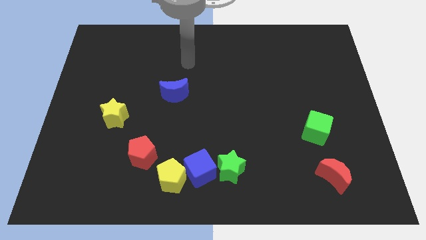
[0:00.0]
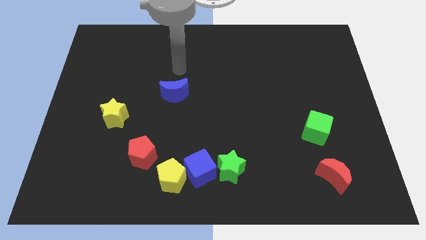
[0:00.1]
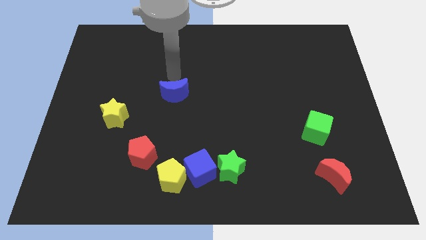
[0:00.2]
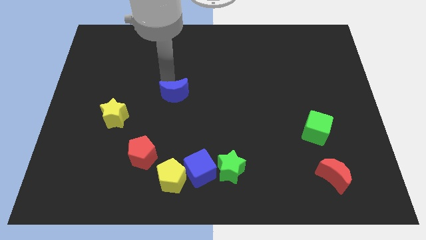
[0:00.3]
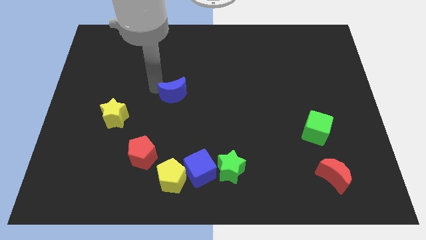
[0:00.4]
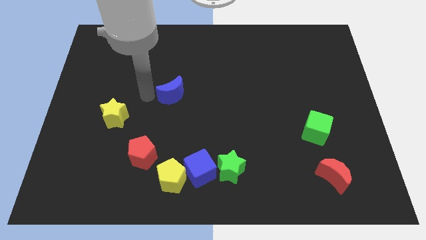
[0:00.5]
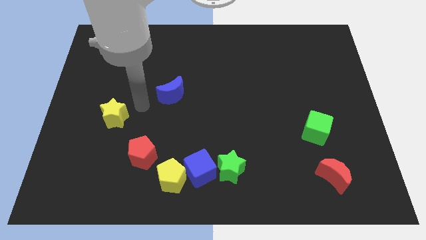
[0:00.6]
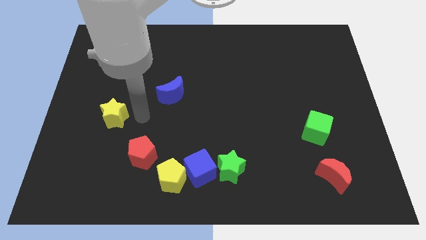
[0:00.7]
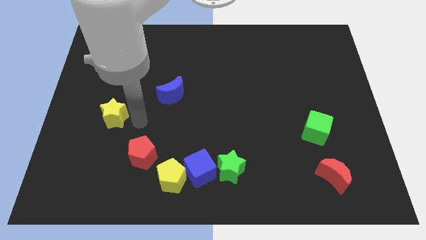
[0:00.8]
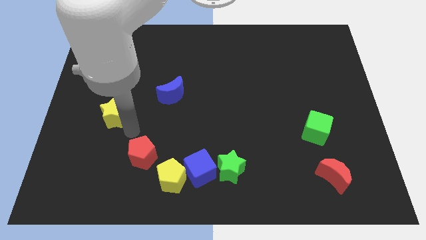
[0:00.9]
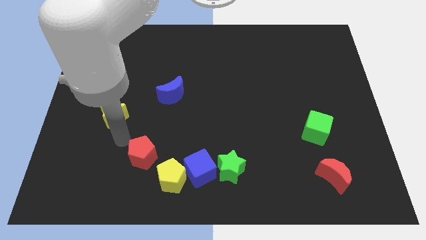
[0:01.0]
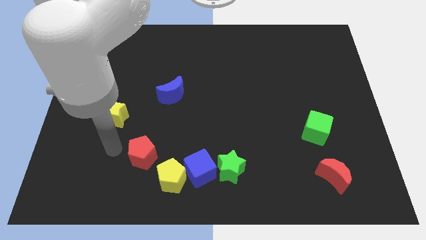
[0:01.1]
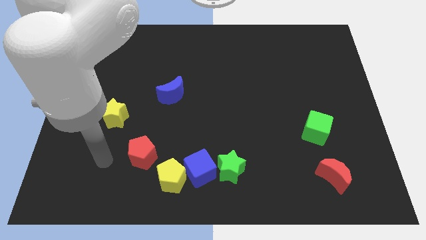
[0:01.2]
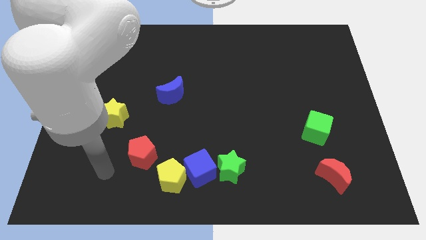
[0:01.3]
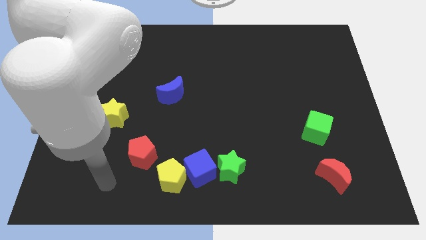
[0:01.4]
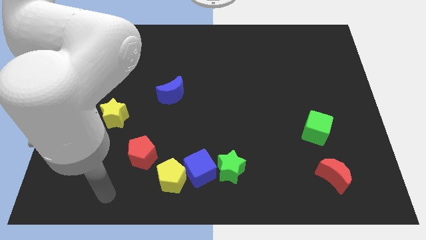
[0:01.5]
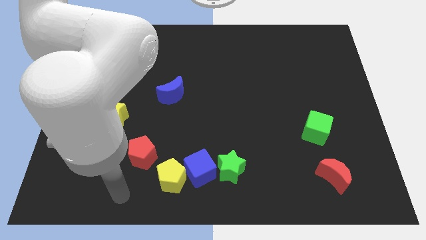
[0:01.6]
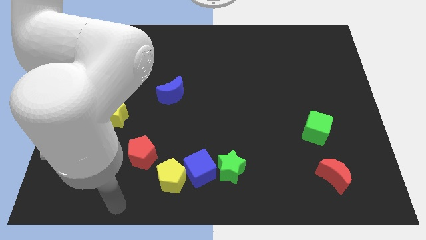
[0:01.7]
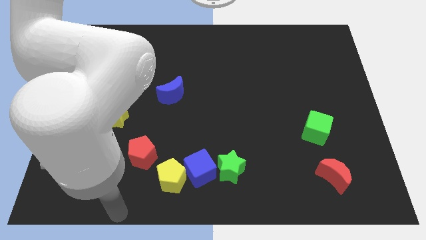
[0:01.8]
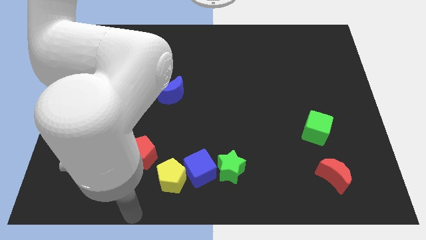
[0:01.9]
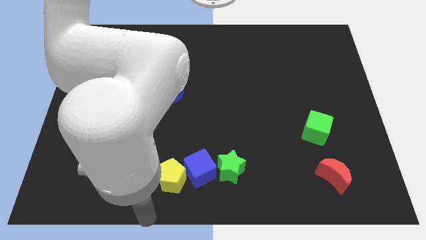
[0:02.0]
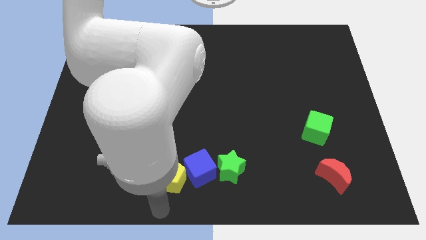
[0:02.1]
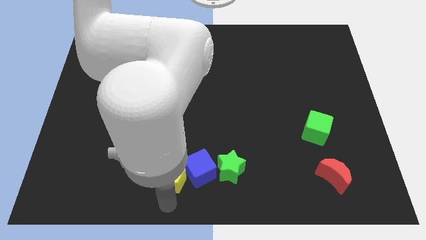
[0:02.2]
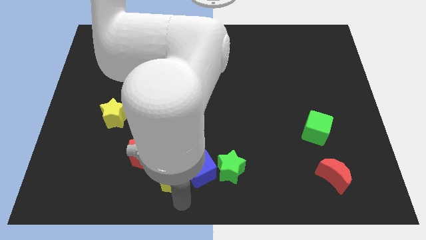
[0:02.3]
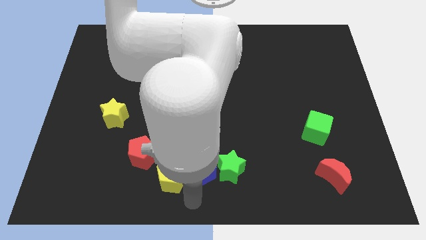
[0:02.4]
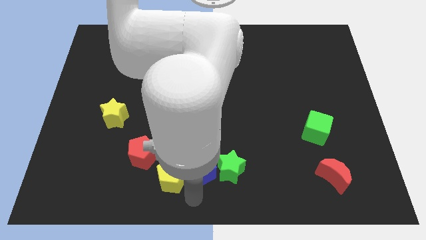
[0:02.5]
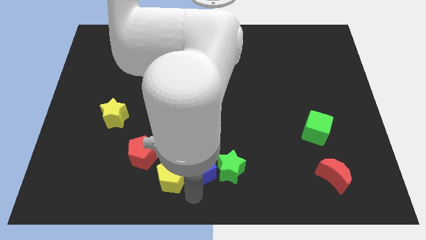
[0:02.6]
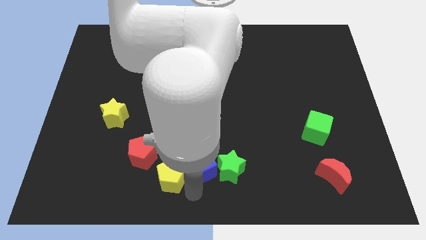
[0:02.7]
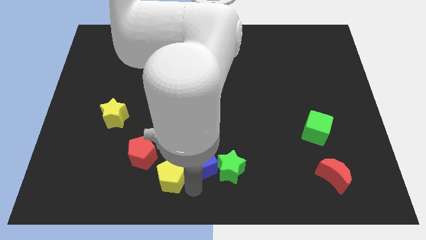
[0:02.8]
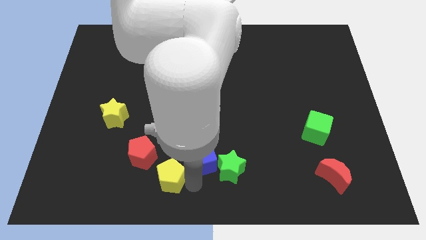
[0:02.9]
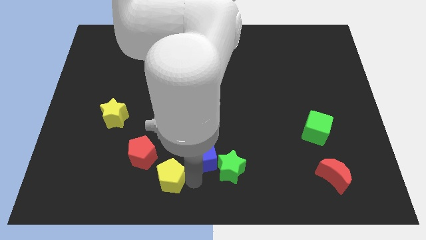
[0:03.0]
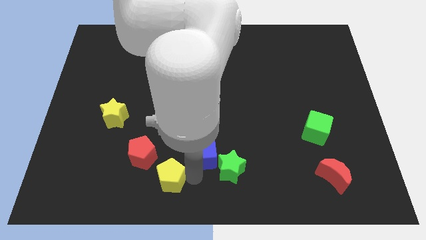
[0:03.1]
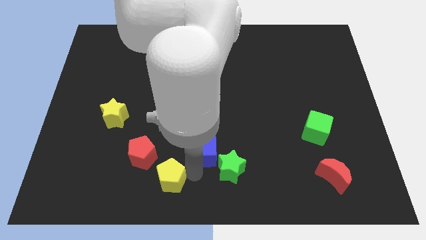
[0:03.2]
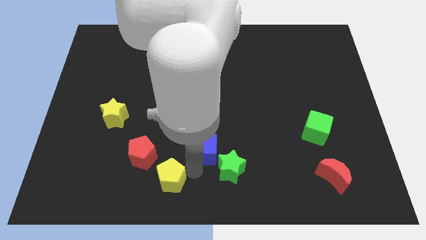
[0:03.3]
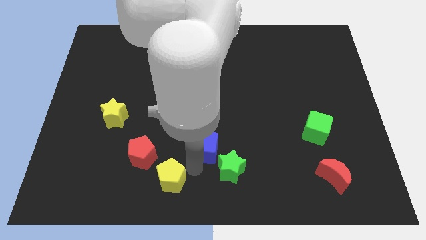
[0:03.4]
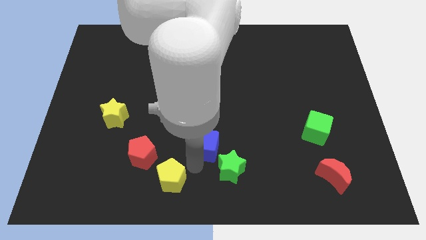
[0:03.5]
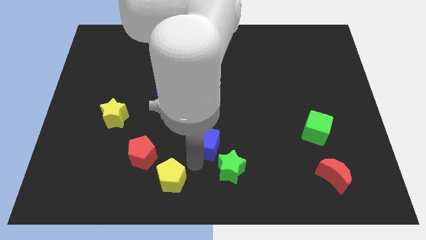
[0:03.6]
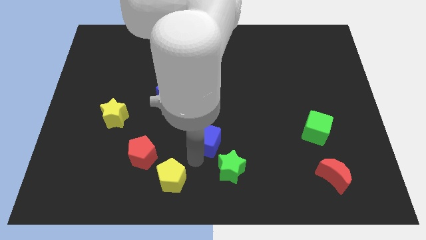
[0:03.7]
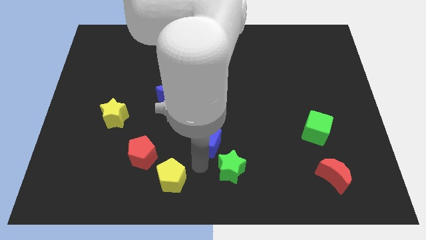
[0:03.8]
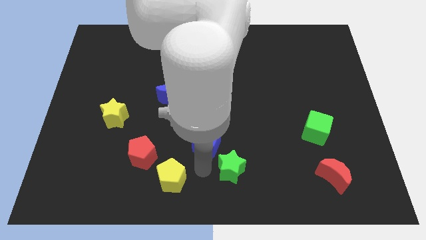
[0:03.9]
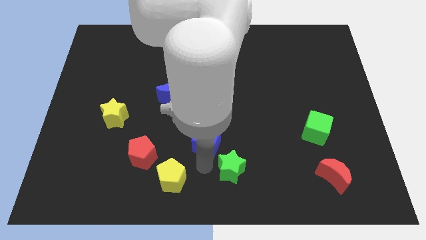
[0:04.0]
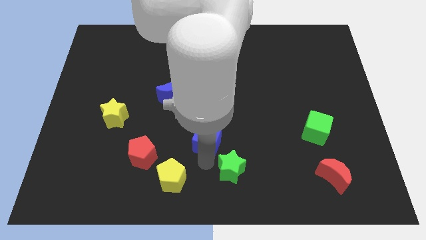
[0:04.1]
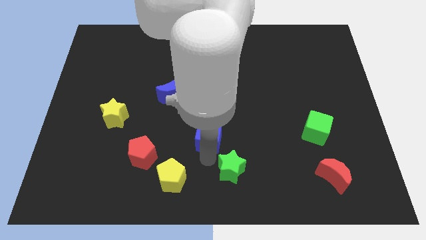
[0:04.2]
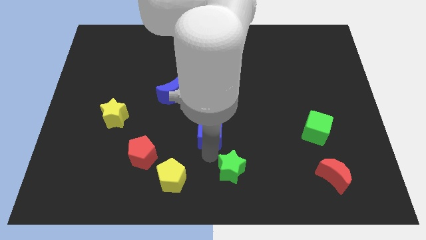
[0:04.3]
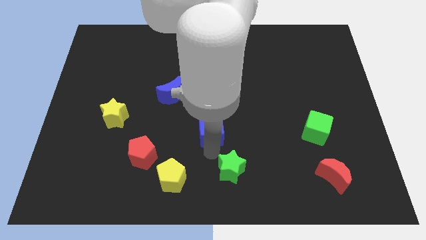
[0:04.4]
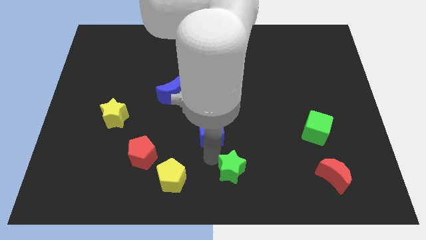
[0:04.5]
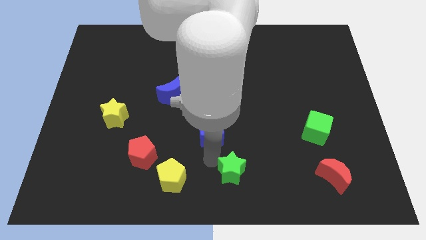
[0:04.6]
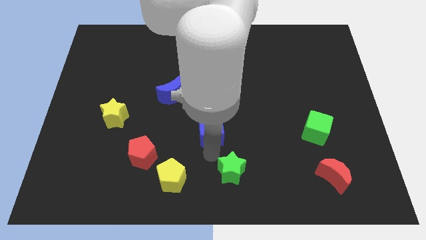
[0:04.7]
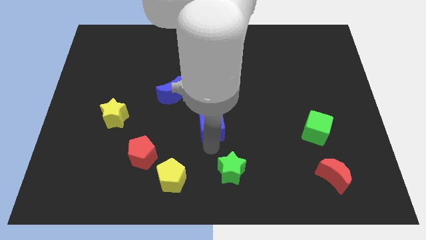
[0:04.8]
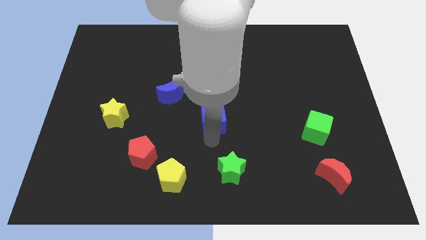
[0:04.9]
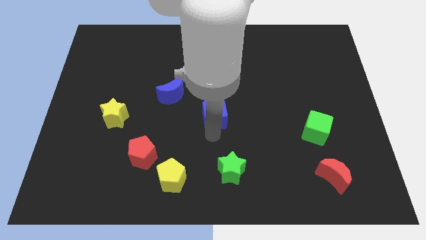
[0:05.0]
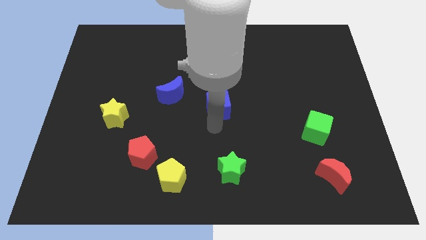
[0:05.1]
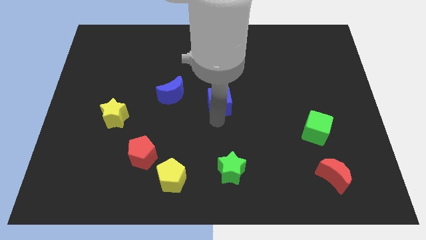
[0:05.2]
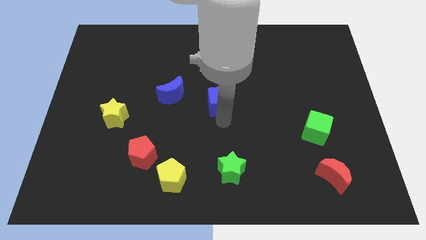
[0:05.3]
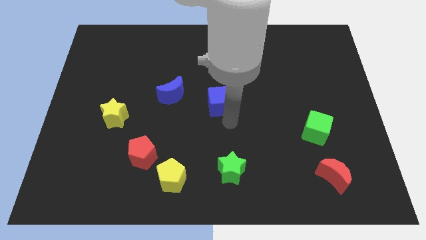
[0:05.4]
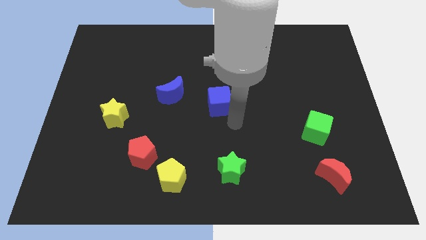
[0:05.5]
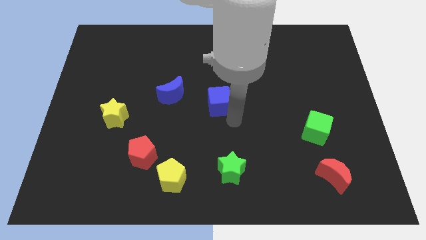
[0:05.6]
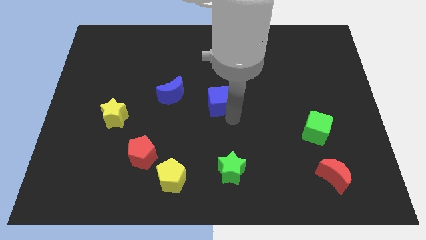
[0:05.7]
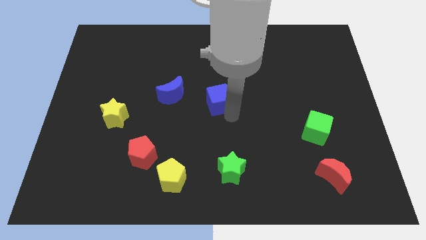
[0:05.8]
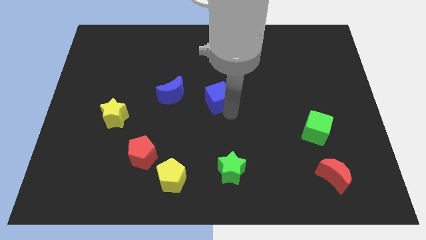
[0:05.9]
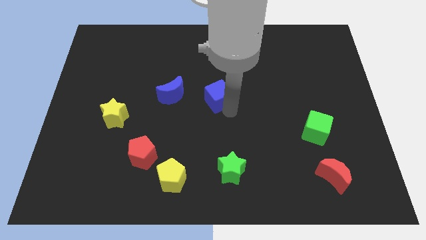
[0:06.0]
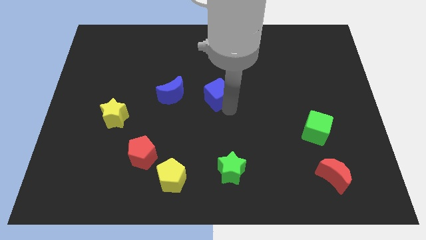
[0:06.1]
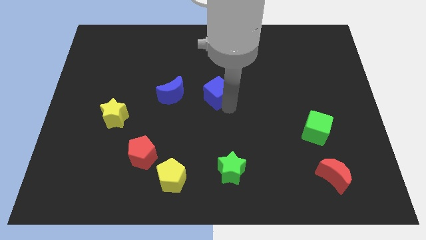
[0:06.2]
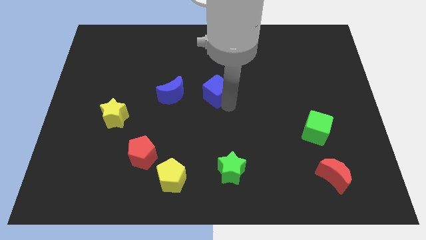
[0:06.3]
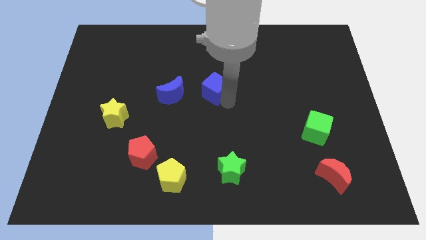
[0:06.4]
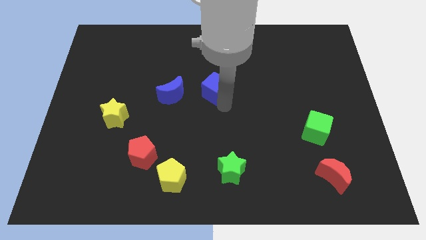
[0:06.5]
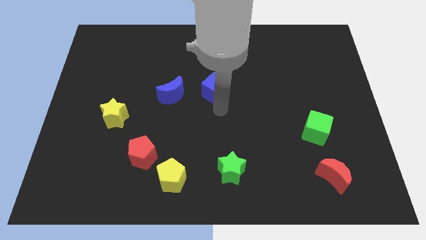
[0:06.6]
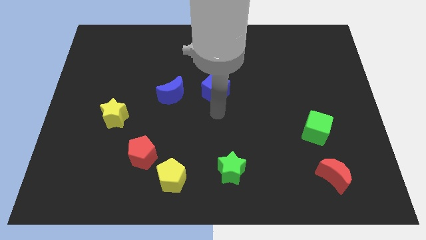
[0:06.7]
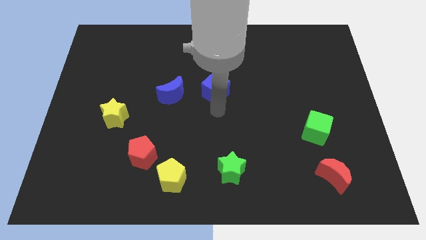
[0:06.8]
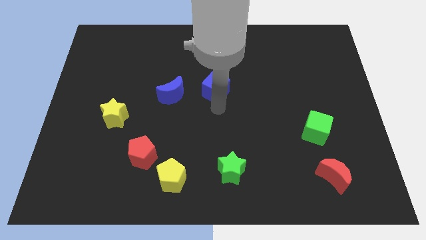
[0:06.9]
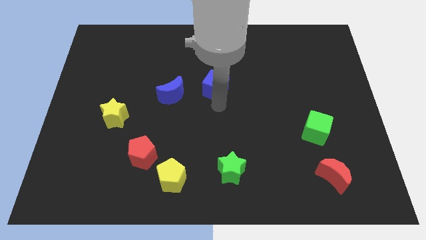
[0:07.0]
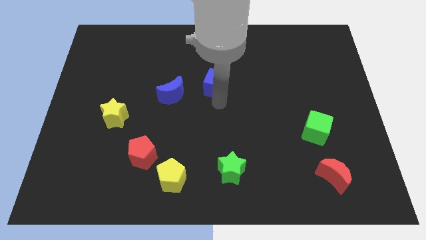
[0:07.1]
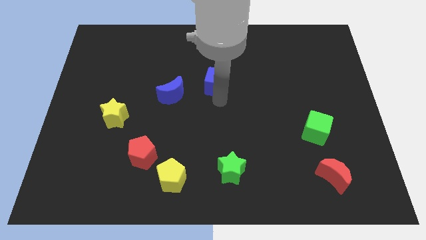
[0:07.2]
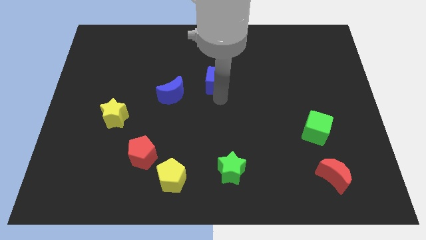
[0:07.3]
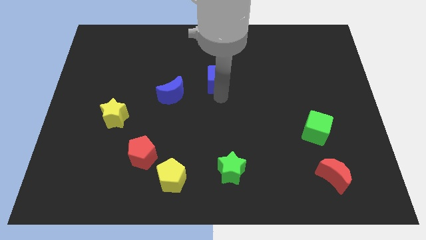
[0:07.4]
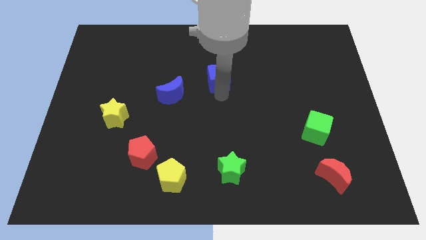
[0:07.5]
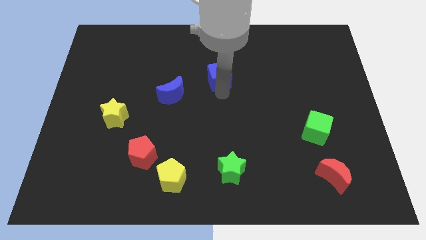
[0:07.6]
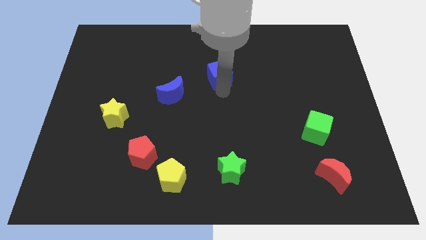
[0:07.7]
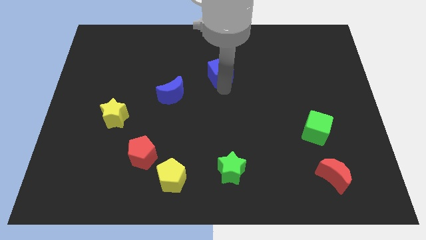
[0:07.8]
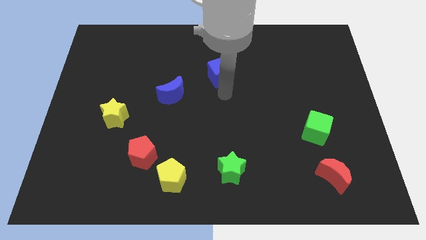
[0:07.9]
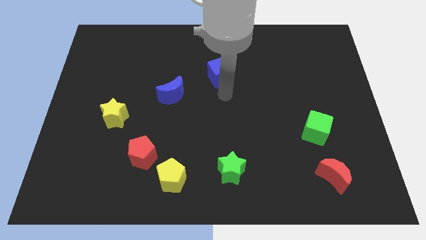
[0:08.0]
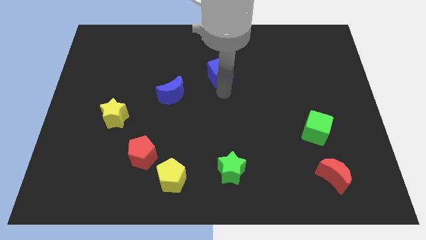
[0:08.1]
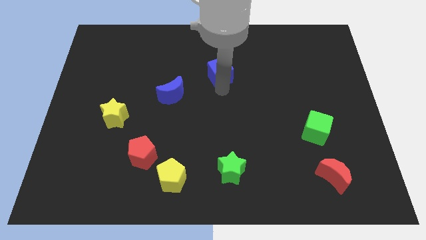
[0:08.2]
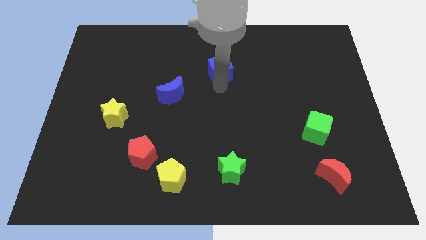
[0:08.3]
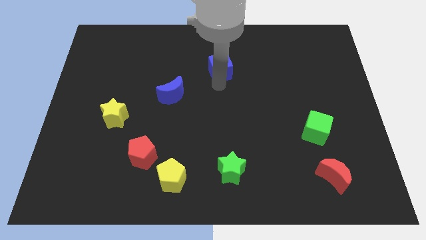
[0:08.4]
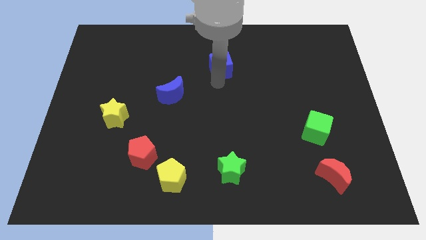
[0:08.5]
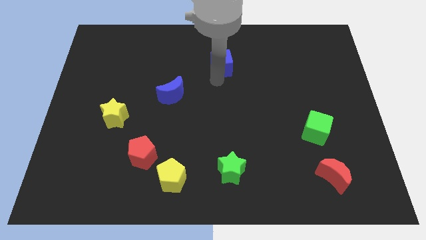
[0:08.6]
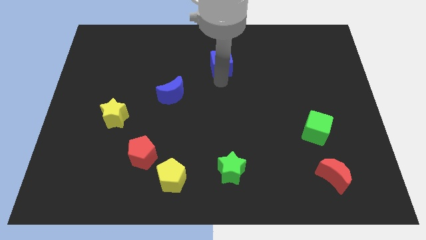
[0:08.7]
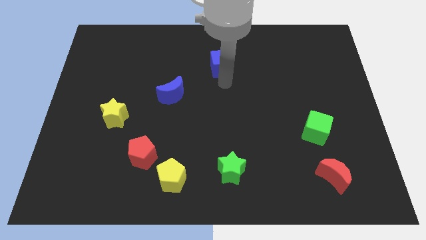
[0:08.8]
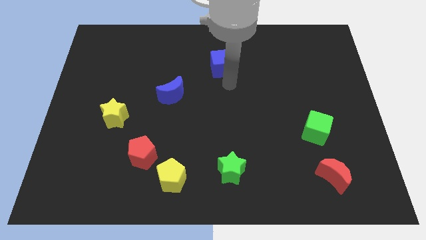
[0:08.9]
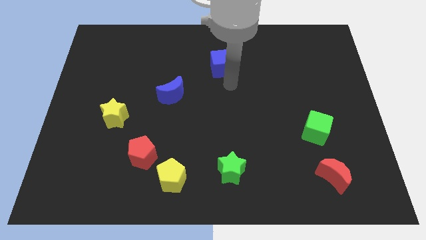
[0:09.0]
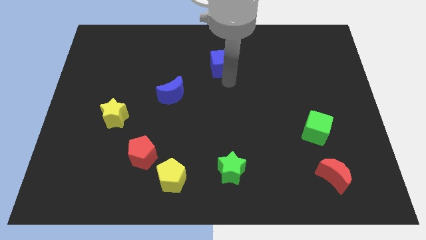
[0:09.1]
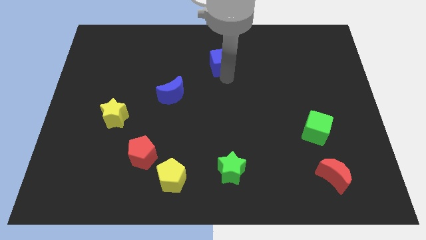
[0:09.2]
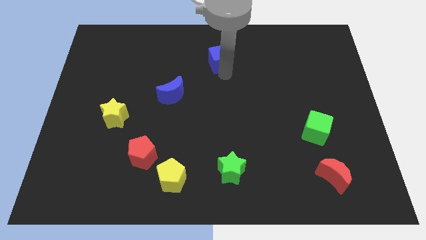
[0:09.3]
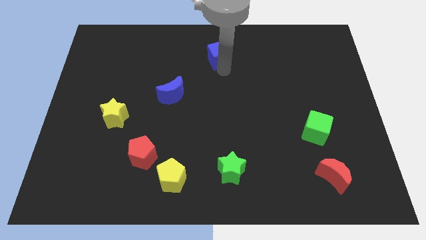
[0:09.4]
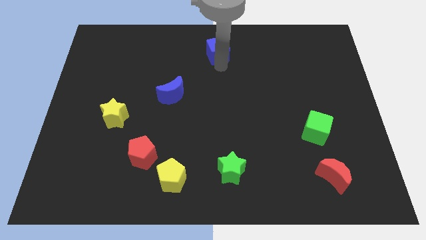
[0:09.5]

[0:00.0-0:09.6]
move the blue cube to the top
